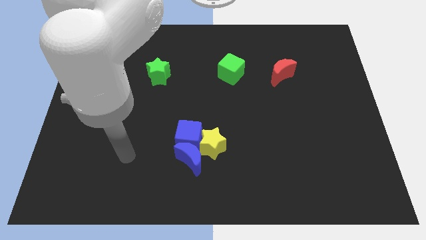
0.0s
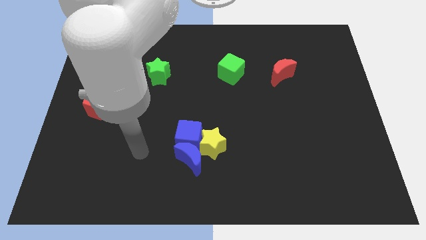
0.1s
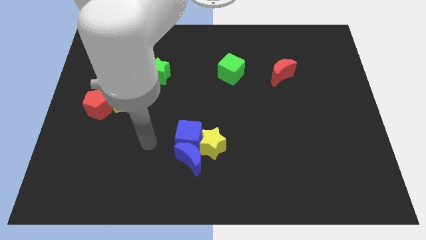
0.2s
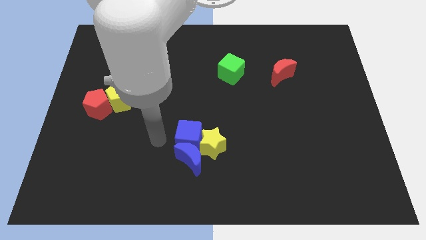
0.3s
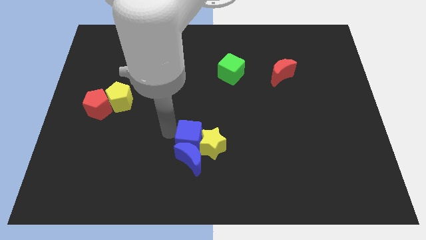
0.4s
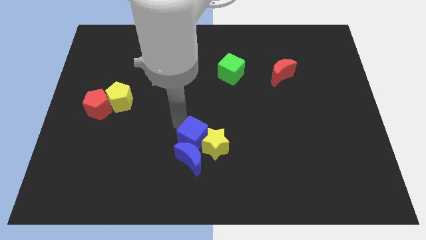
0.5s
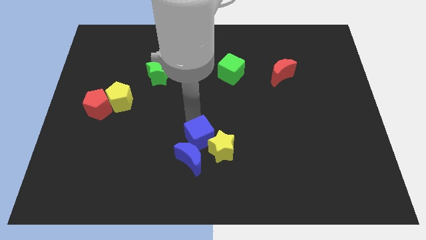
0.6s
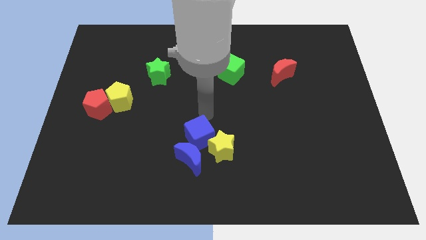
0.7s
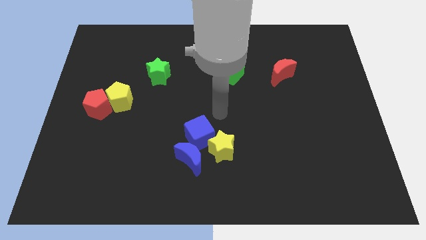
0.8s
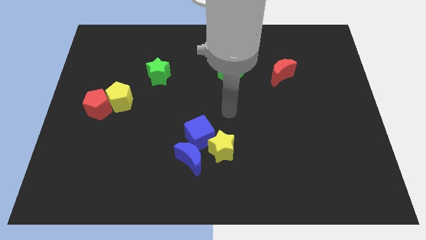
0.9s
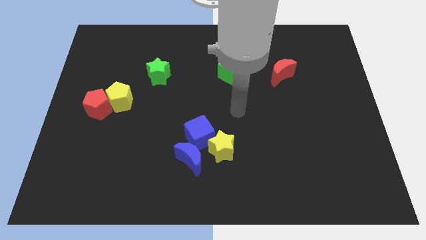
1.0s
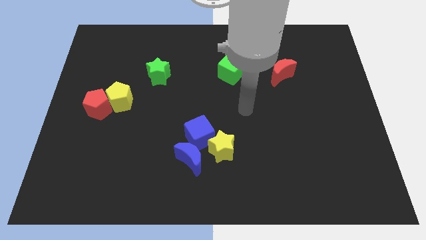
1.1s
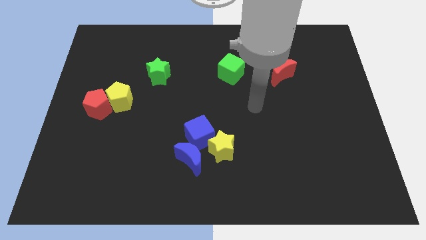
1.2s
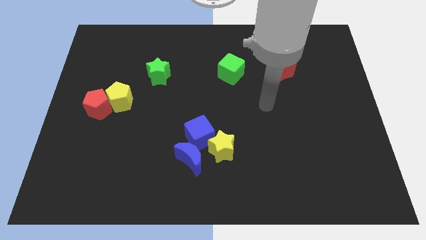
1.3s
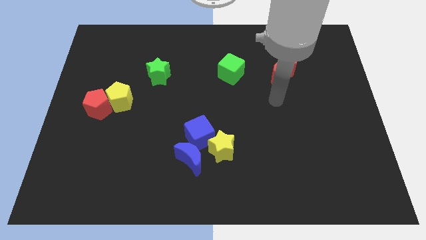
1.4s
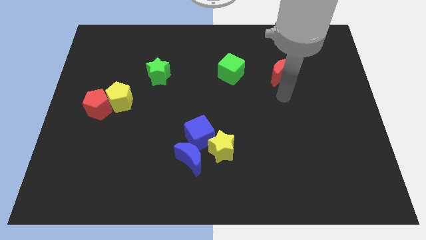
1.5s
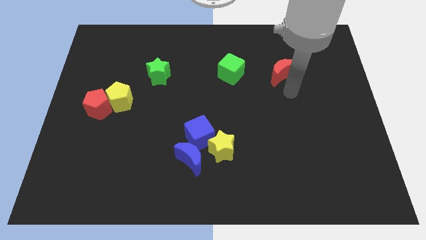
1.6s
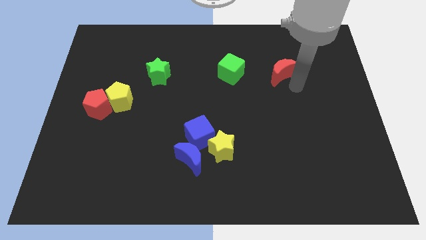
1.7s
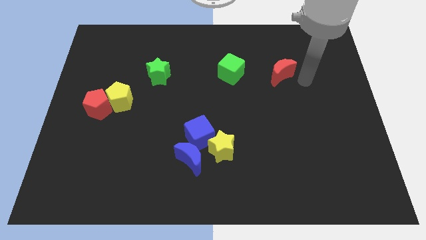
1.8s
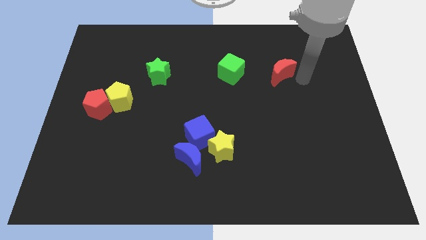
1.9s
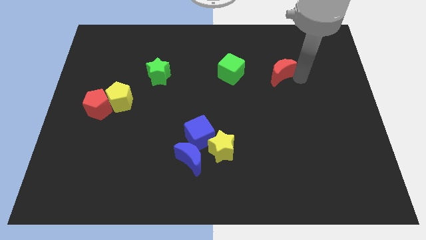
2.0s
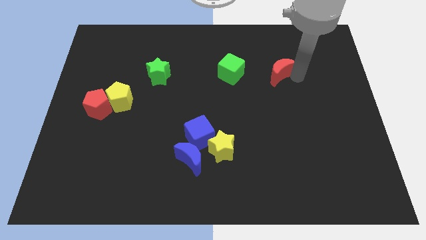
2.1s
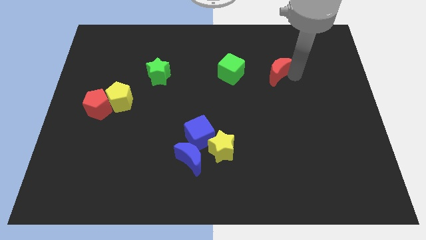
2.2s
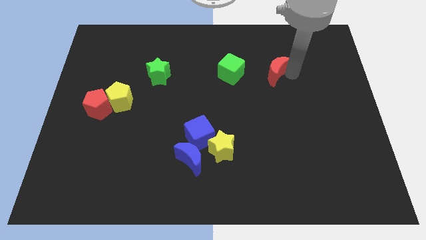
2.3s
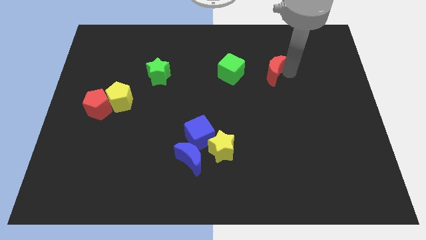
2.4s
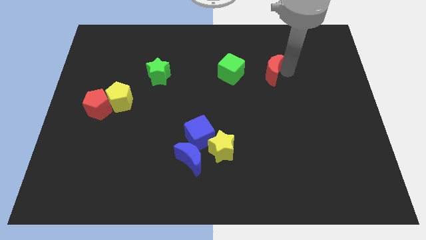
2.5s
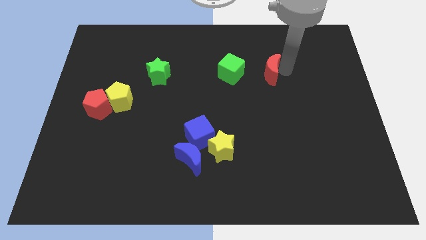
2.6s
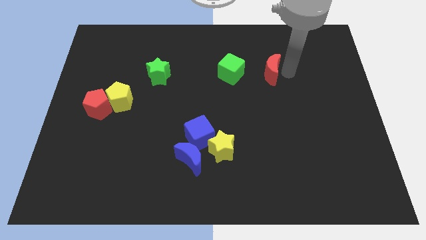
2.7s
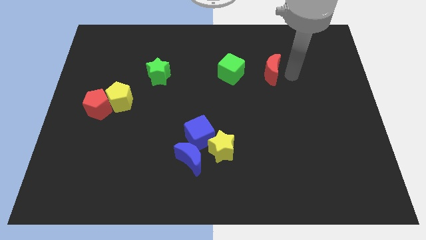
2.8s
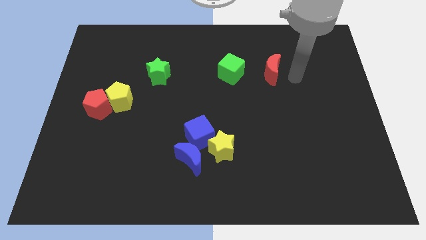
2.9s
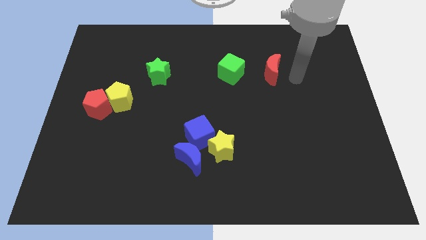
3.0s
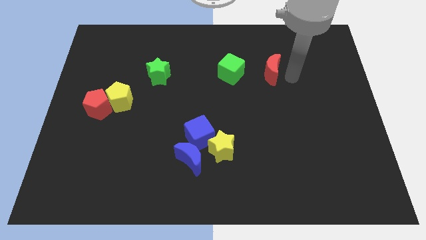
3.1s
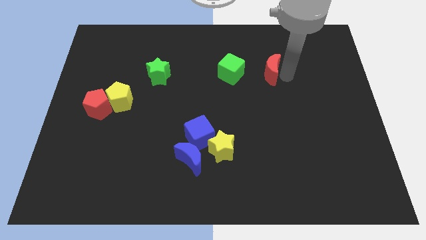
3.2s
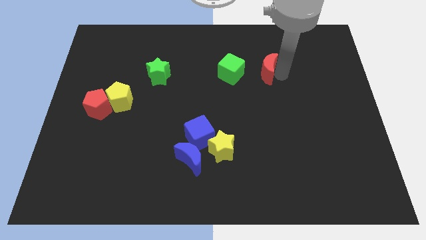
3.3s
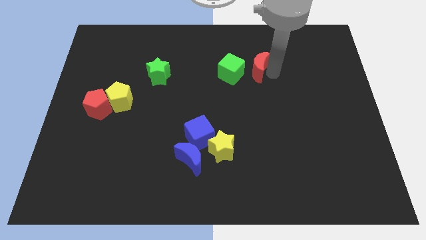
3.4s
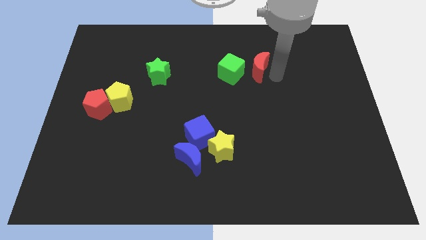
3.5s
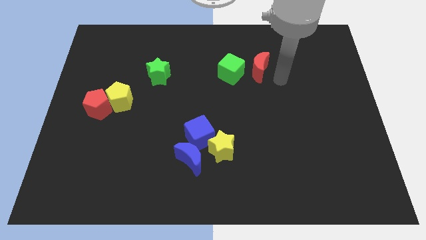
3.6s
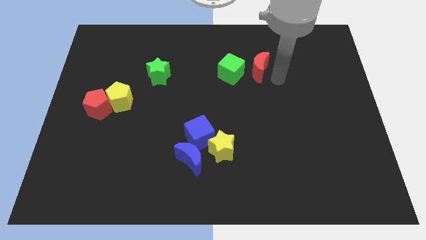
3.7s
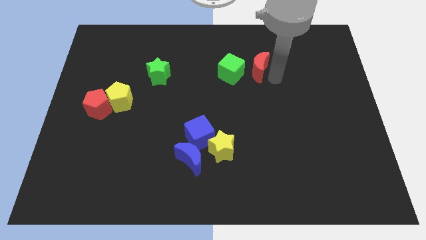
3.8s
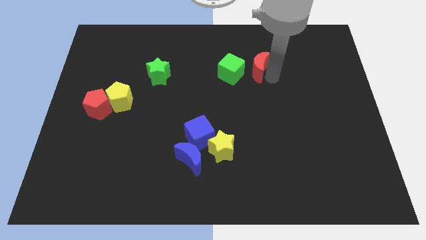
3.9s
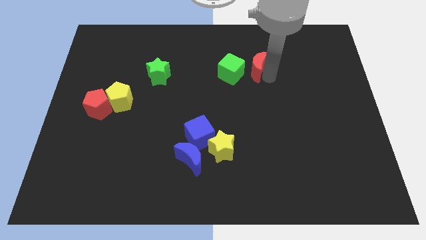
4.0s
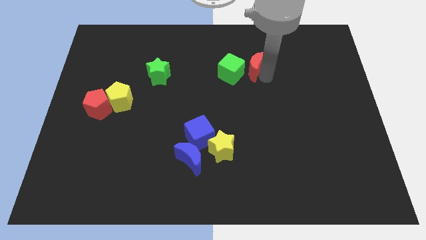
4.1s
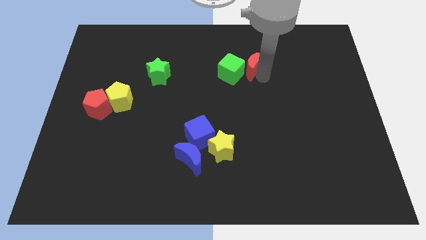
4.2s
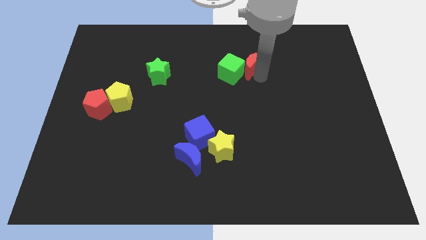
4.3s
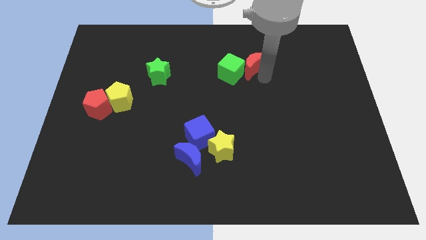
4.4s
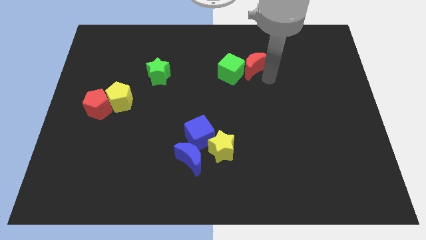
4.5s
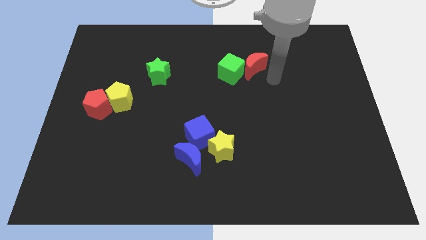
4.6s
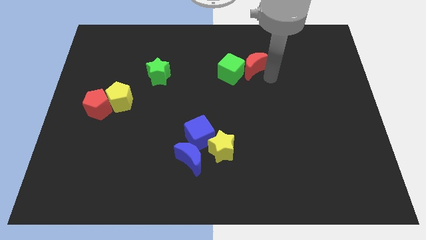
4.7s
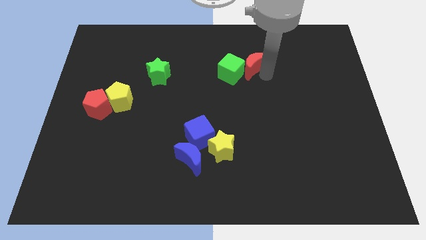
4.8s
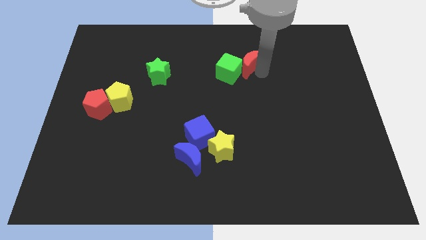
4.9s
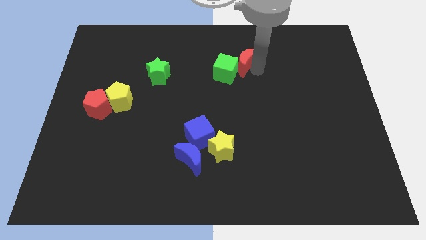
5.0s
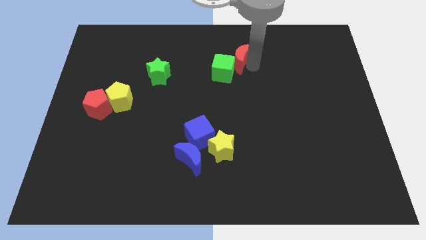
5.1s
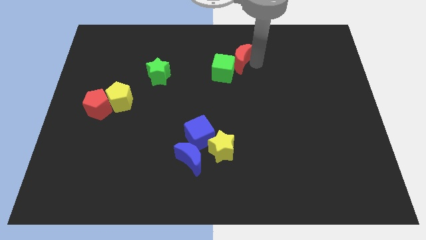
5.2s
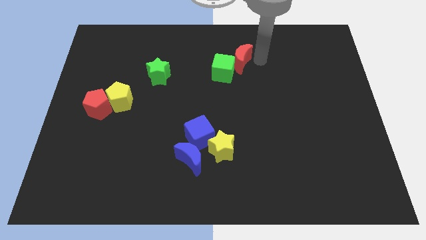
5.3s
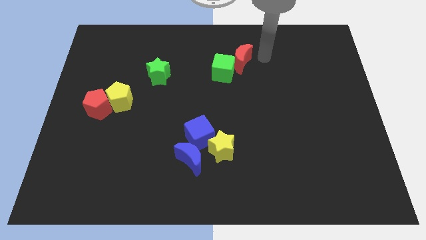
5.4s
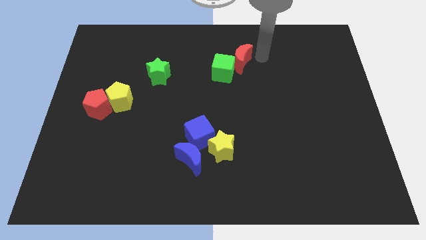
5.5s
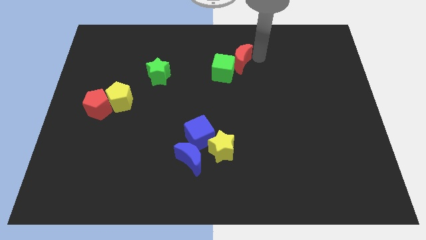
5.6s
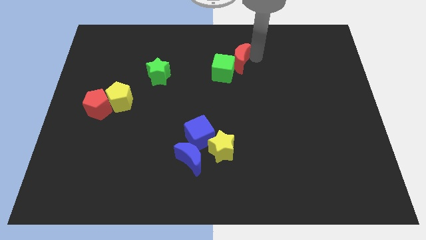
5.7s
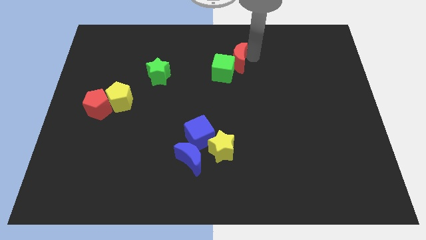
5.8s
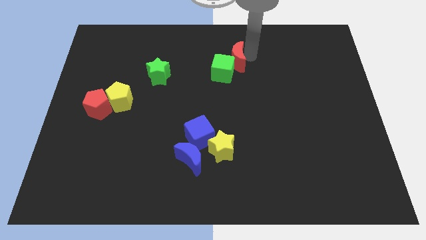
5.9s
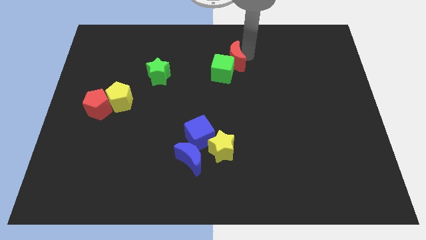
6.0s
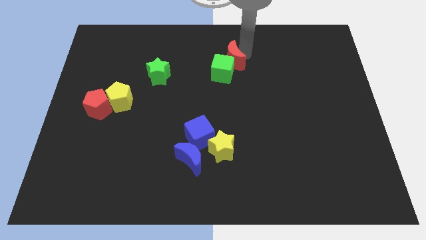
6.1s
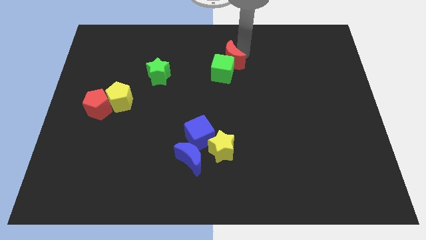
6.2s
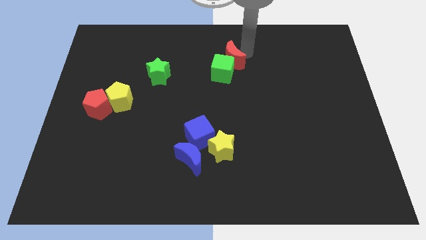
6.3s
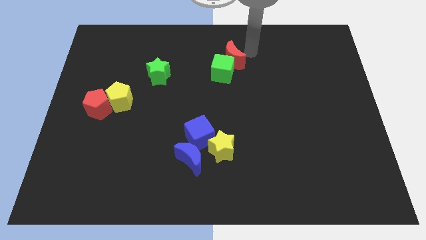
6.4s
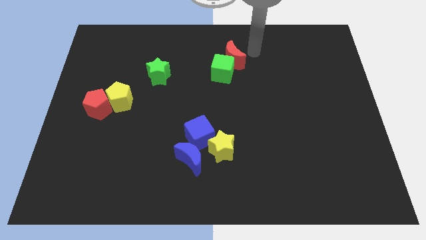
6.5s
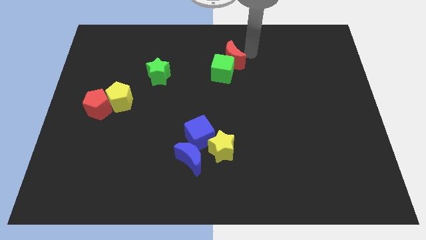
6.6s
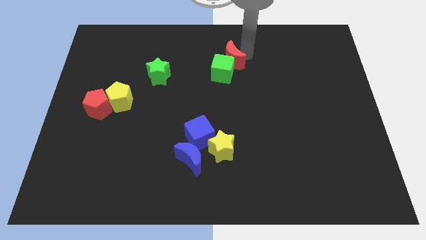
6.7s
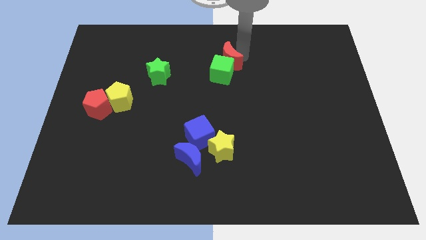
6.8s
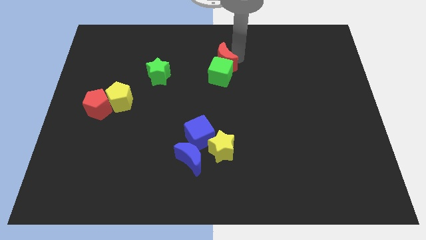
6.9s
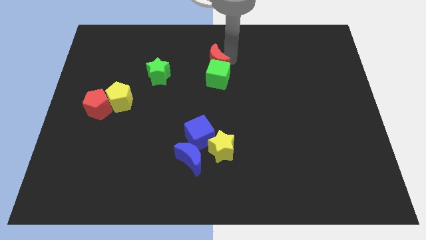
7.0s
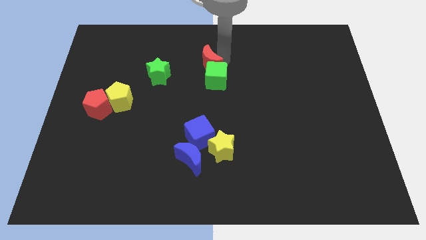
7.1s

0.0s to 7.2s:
put the red moon to the right side of the green star
